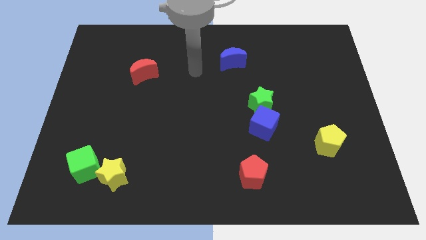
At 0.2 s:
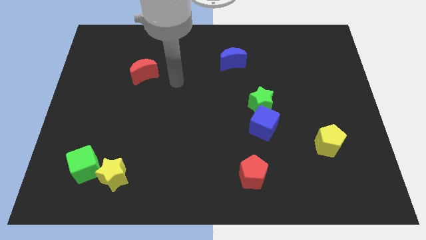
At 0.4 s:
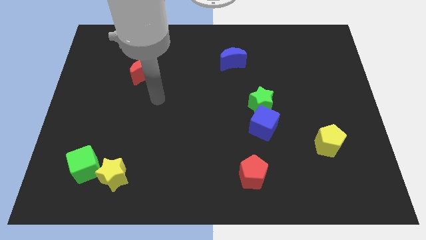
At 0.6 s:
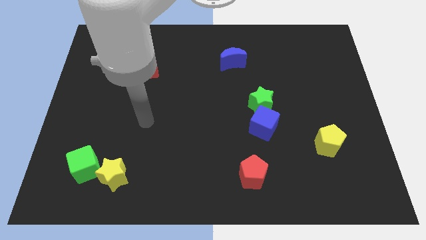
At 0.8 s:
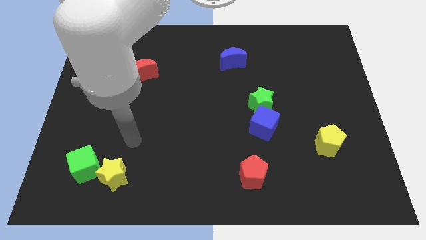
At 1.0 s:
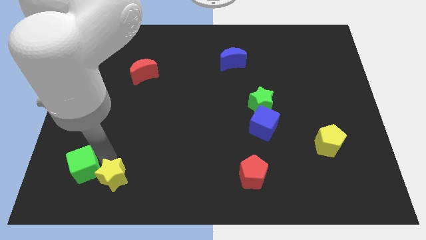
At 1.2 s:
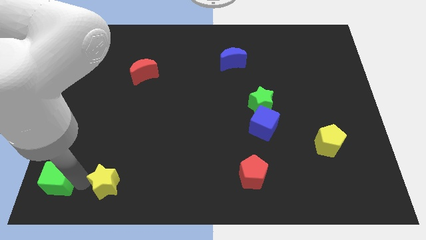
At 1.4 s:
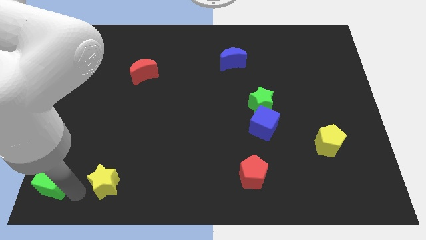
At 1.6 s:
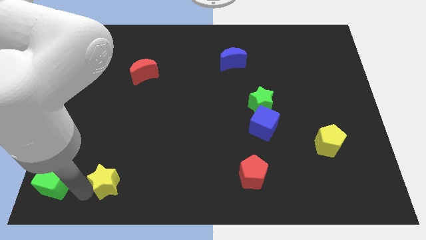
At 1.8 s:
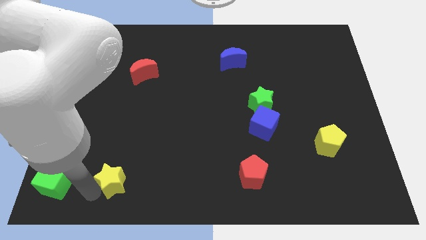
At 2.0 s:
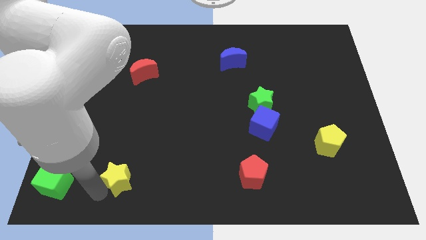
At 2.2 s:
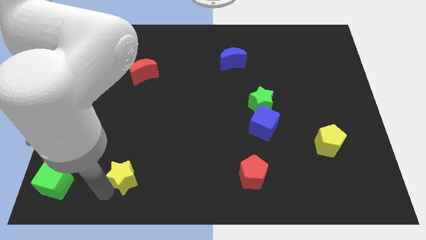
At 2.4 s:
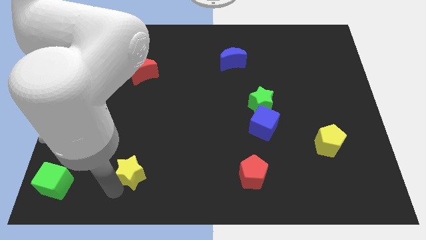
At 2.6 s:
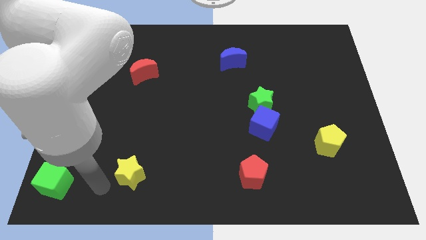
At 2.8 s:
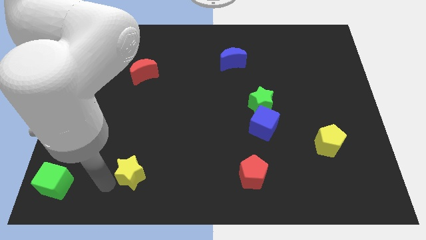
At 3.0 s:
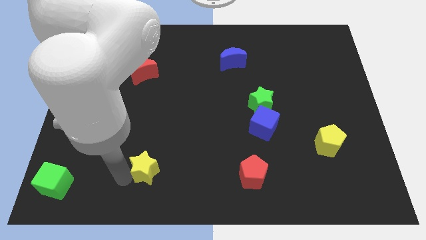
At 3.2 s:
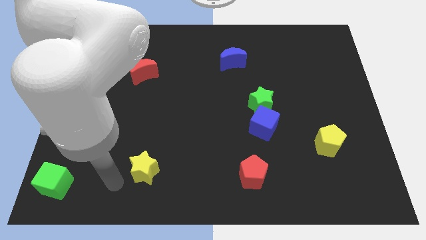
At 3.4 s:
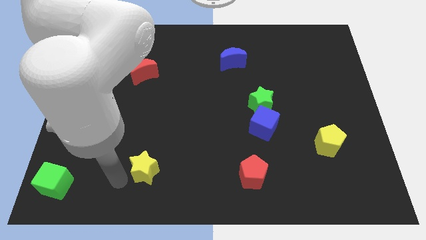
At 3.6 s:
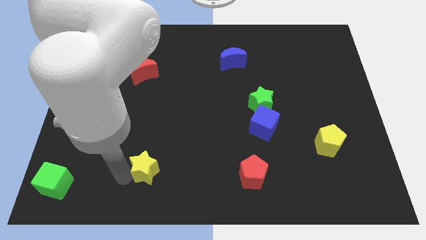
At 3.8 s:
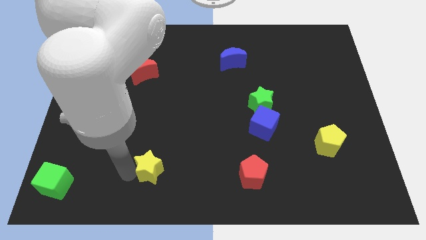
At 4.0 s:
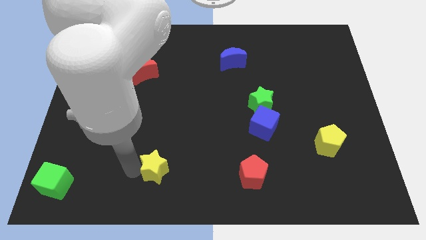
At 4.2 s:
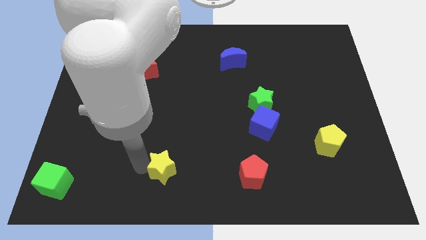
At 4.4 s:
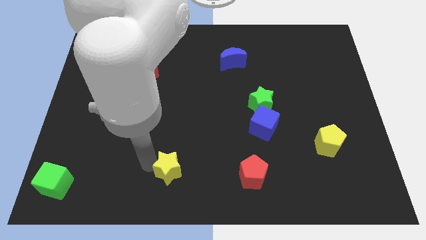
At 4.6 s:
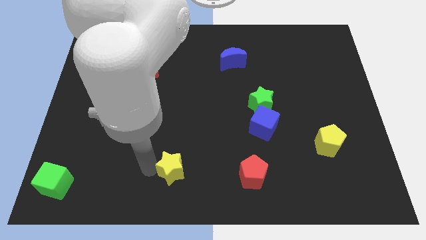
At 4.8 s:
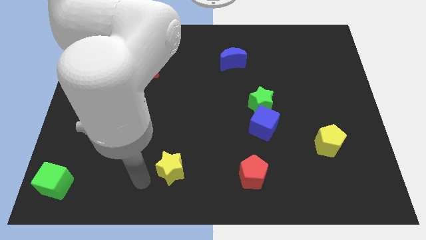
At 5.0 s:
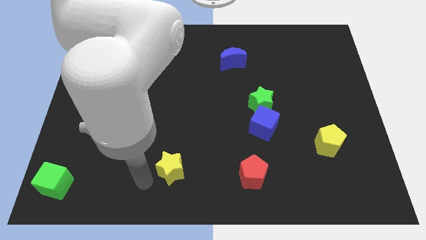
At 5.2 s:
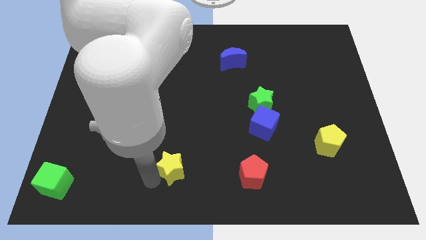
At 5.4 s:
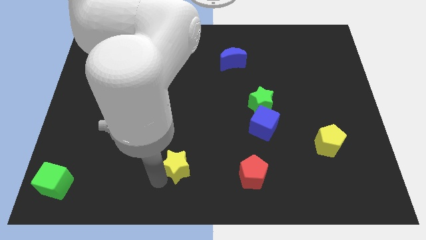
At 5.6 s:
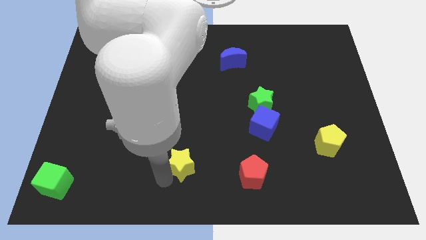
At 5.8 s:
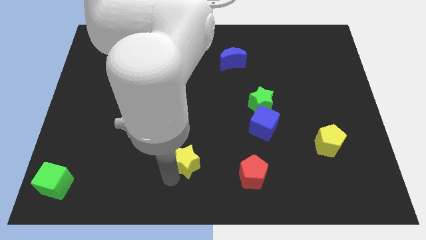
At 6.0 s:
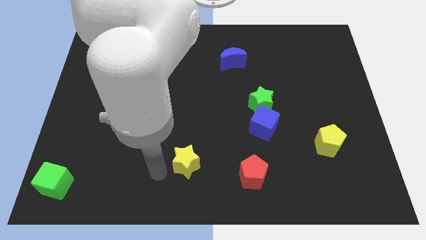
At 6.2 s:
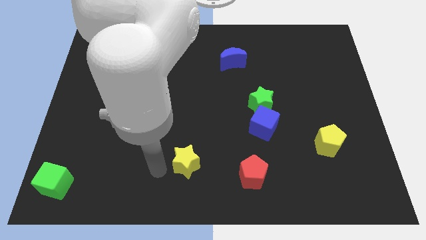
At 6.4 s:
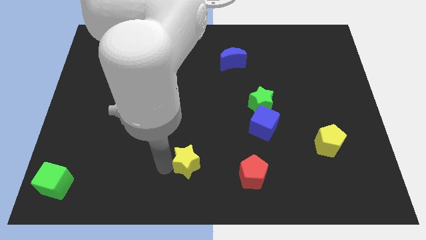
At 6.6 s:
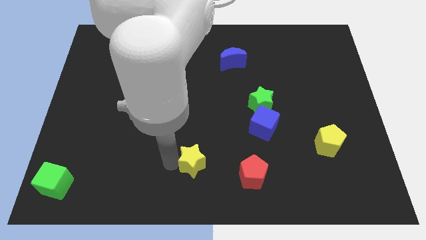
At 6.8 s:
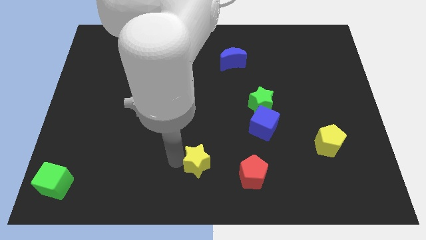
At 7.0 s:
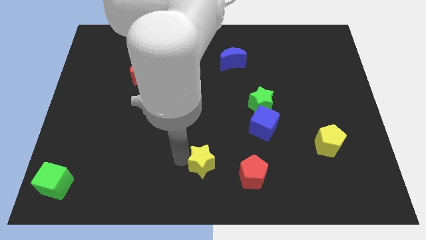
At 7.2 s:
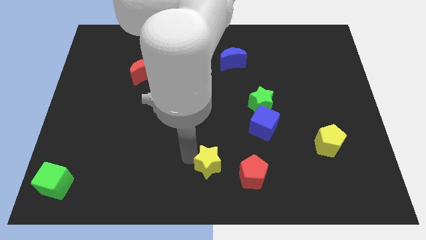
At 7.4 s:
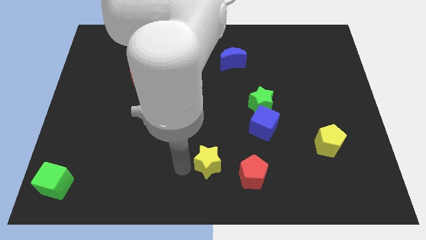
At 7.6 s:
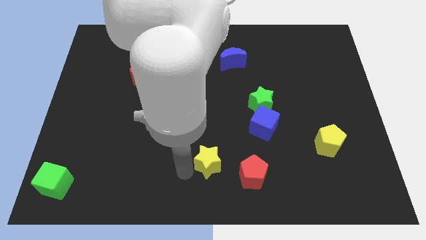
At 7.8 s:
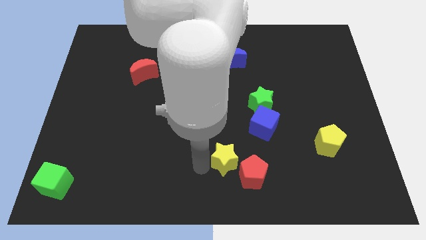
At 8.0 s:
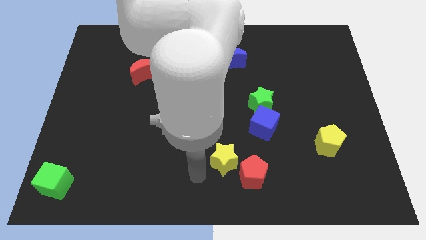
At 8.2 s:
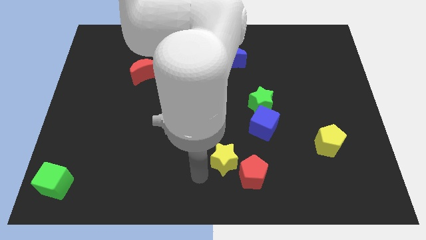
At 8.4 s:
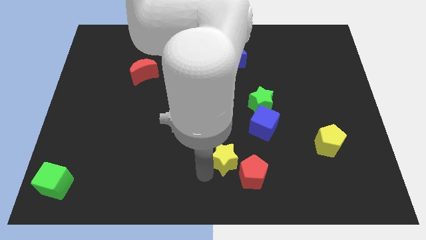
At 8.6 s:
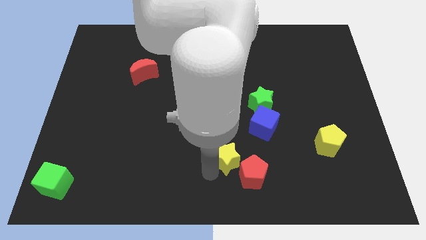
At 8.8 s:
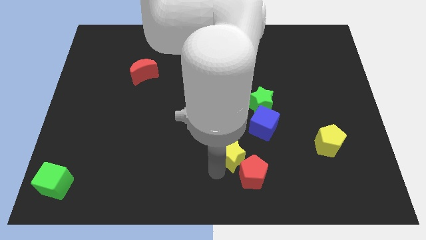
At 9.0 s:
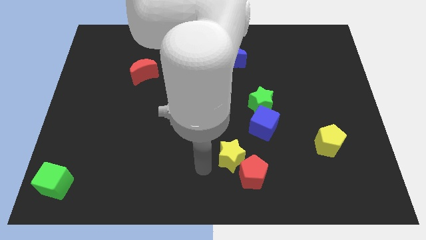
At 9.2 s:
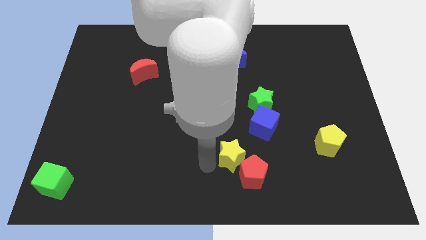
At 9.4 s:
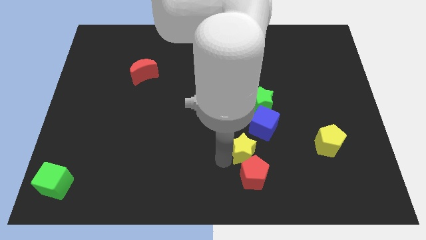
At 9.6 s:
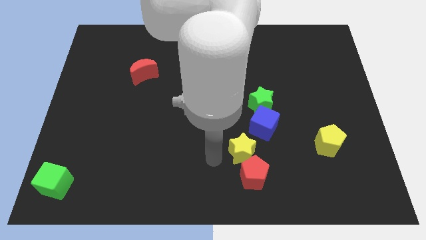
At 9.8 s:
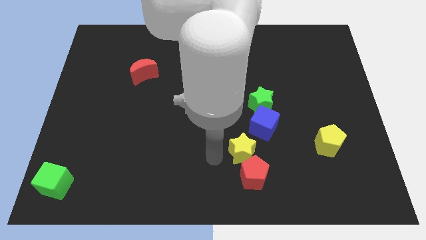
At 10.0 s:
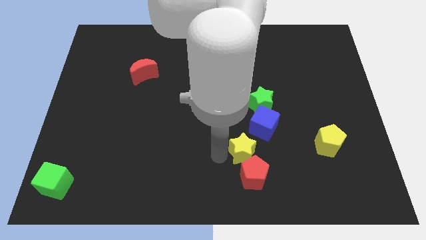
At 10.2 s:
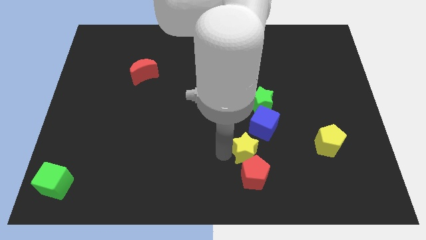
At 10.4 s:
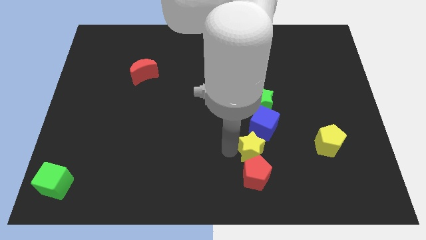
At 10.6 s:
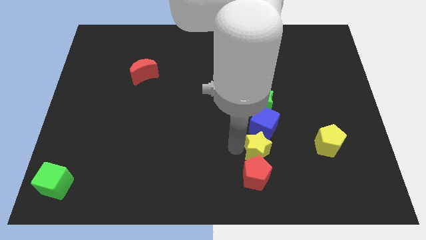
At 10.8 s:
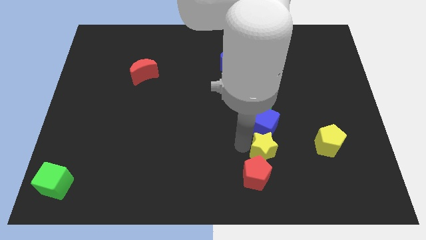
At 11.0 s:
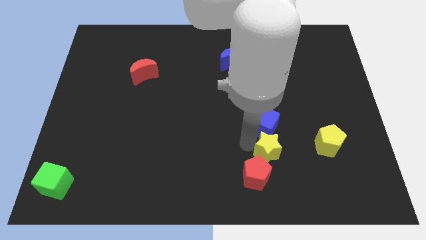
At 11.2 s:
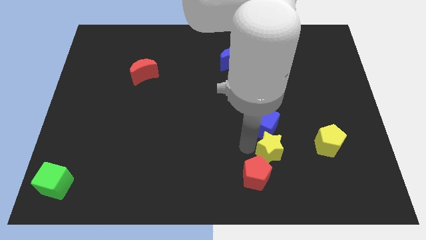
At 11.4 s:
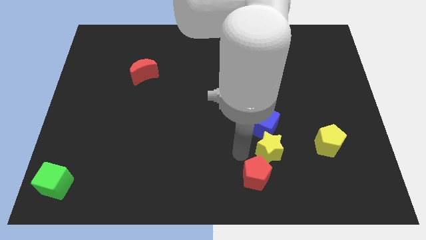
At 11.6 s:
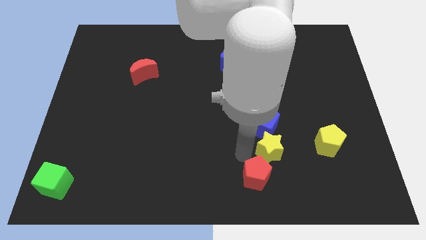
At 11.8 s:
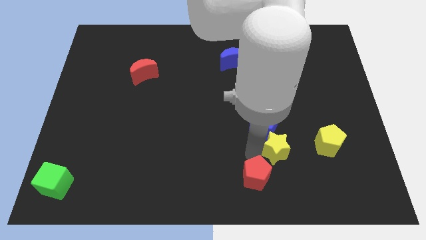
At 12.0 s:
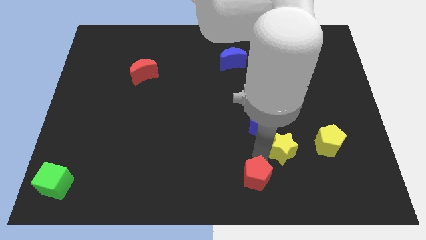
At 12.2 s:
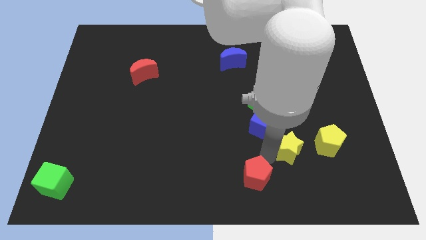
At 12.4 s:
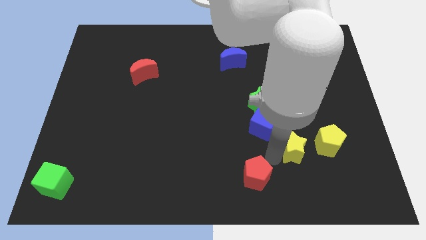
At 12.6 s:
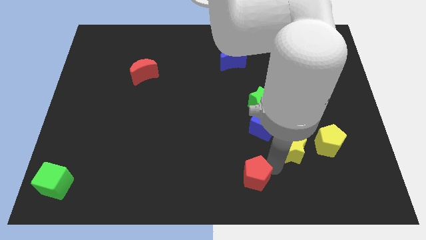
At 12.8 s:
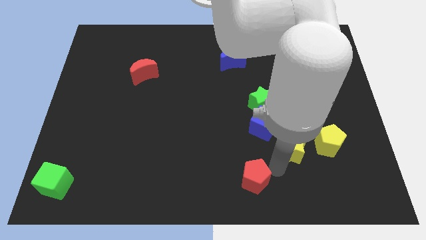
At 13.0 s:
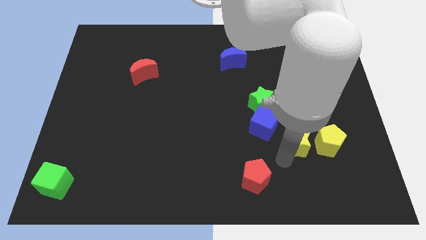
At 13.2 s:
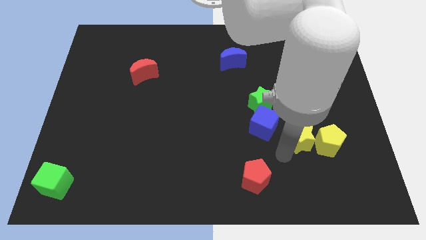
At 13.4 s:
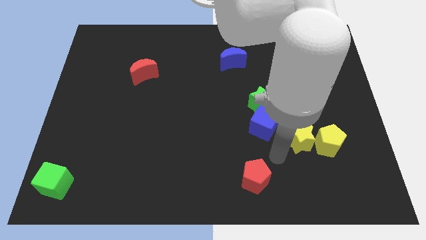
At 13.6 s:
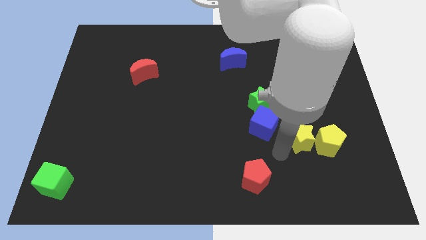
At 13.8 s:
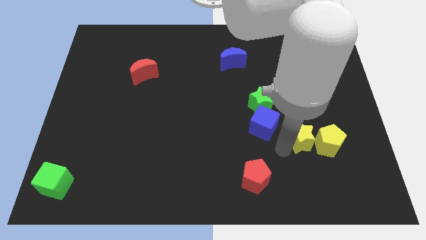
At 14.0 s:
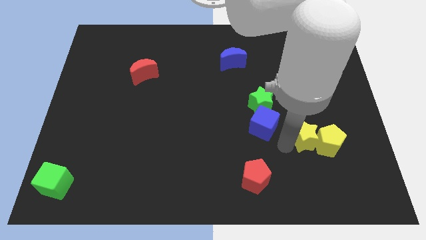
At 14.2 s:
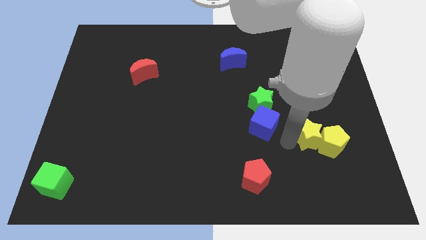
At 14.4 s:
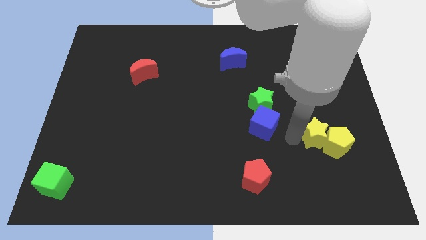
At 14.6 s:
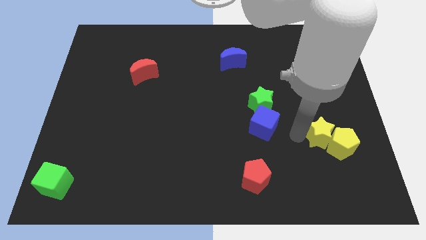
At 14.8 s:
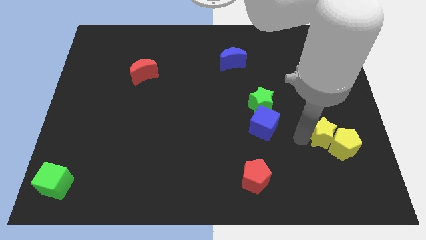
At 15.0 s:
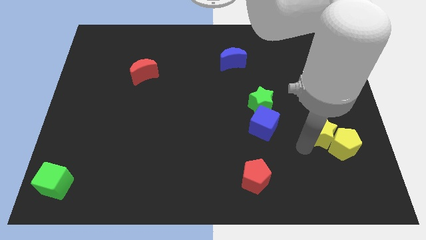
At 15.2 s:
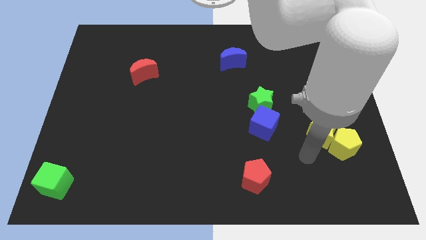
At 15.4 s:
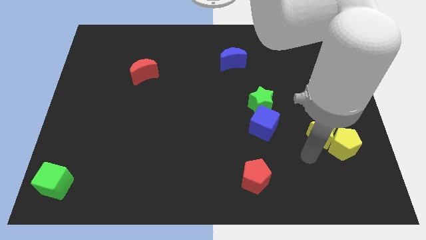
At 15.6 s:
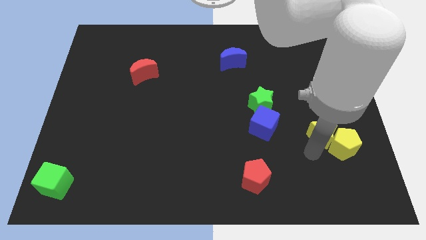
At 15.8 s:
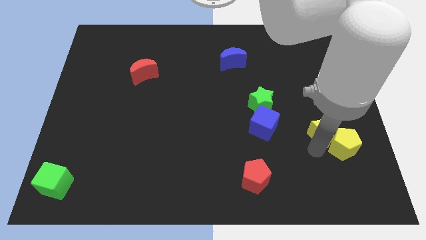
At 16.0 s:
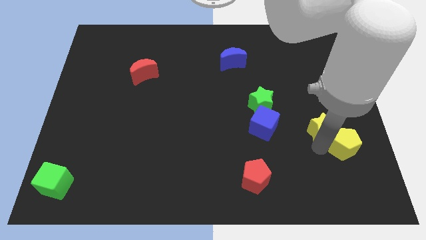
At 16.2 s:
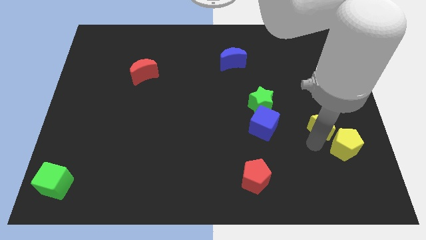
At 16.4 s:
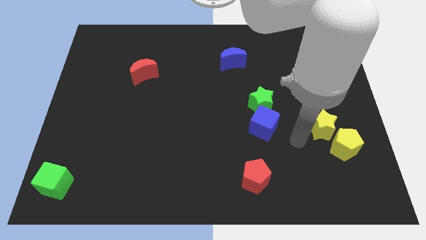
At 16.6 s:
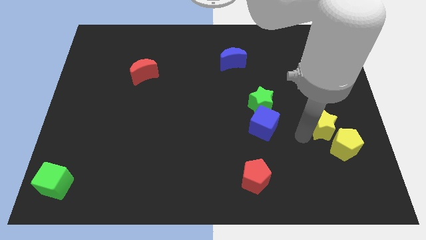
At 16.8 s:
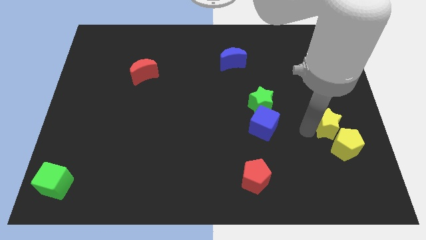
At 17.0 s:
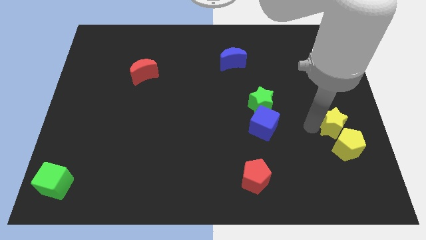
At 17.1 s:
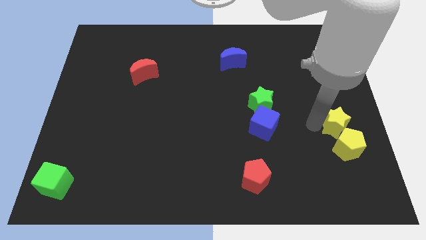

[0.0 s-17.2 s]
slide the yellow star to the right side
